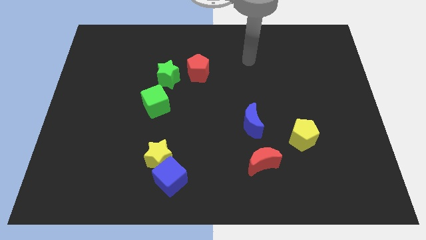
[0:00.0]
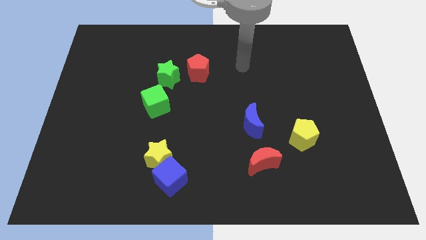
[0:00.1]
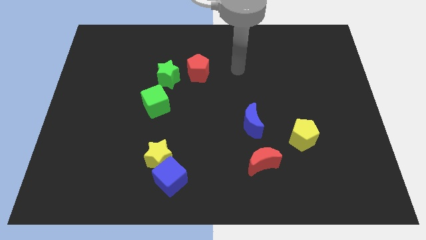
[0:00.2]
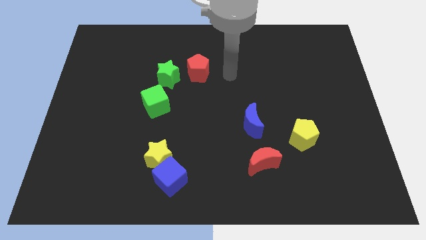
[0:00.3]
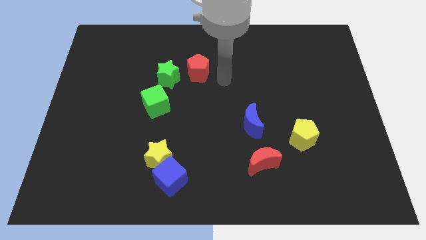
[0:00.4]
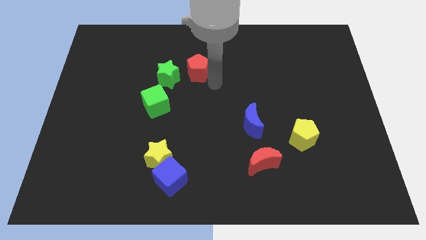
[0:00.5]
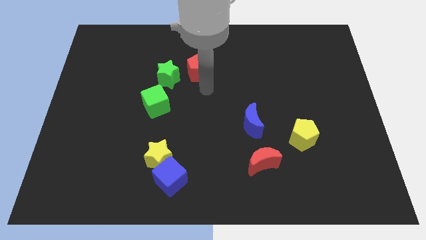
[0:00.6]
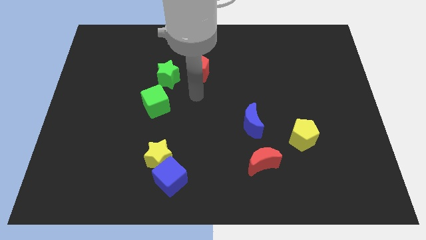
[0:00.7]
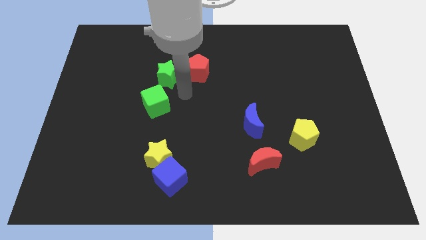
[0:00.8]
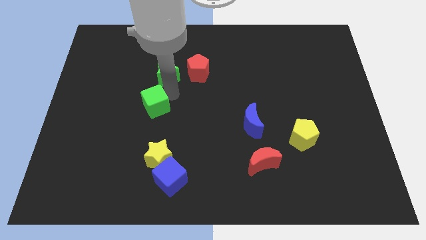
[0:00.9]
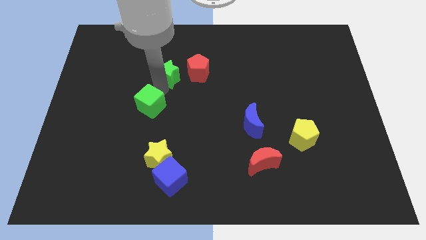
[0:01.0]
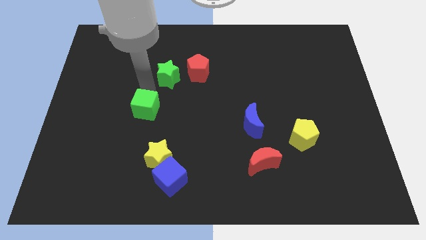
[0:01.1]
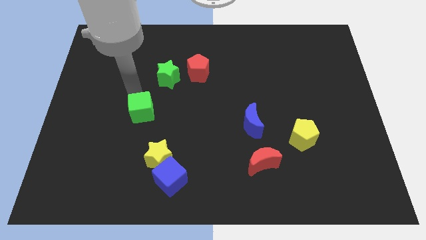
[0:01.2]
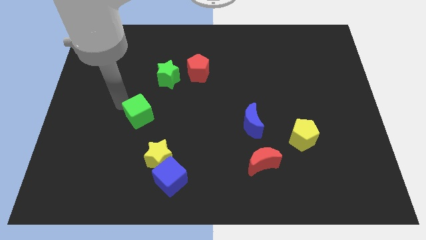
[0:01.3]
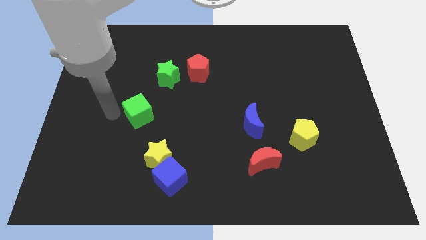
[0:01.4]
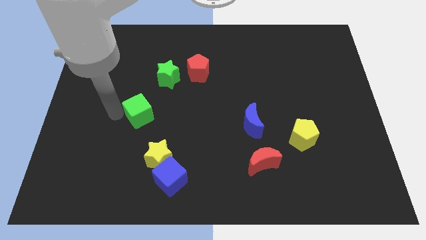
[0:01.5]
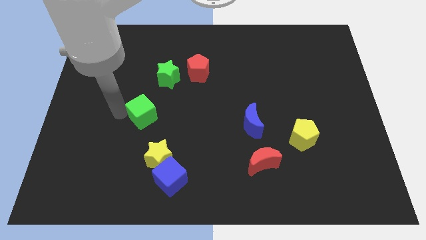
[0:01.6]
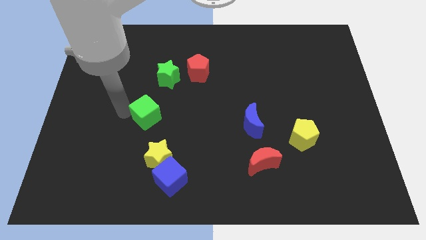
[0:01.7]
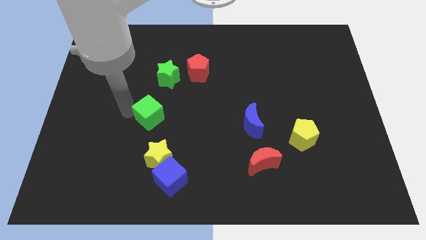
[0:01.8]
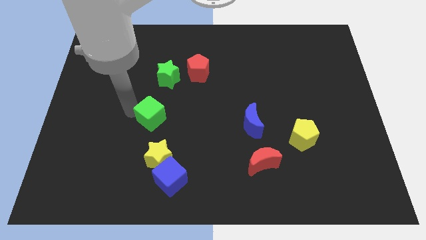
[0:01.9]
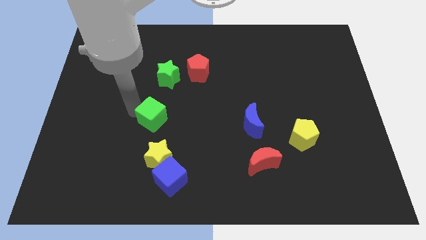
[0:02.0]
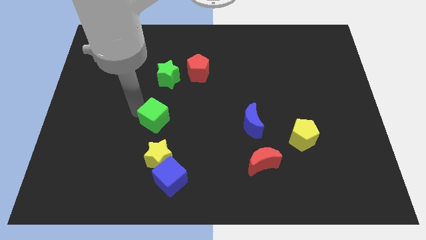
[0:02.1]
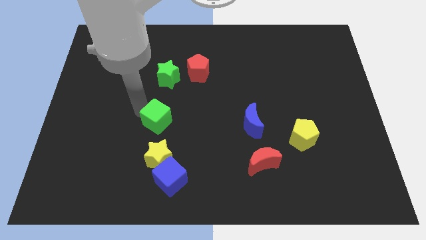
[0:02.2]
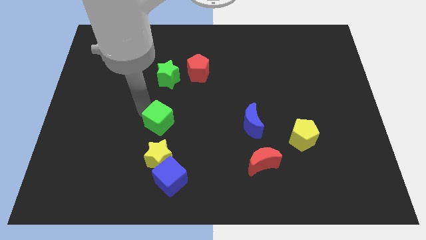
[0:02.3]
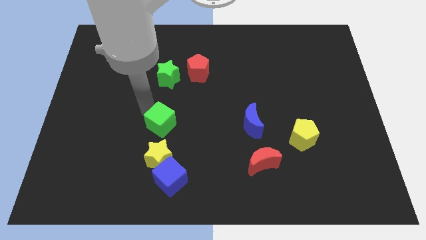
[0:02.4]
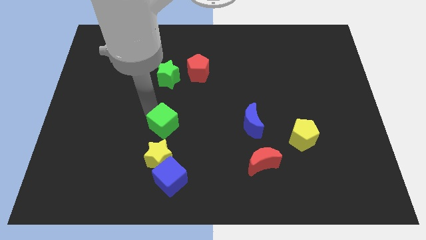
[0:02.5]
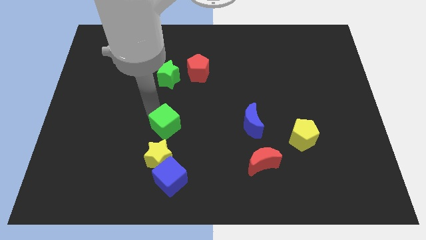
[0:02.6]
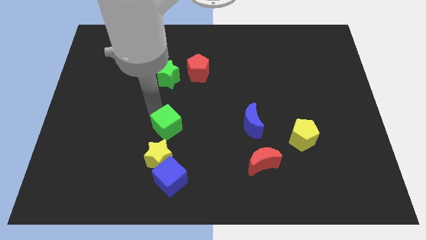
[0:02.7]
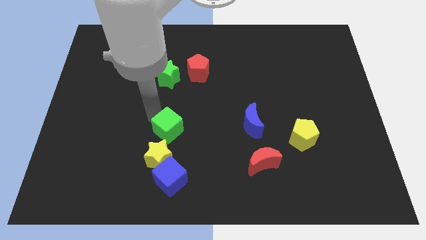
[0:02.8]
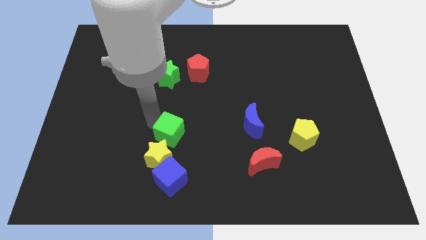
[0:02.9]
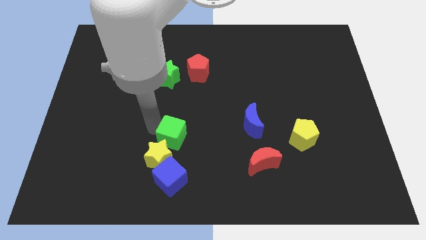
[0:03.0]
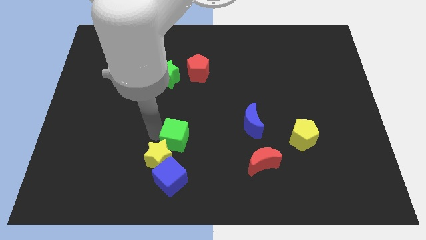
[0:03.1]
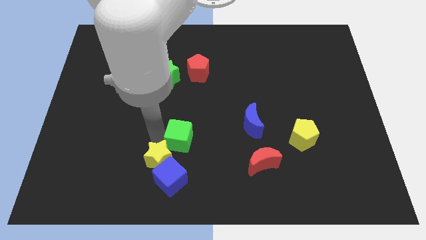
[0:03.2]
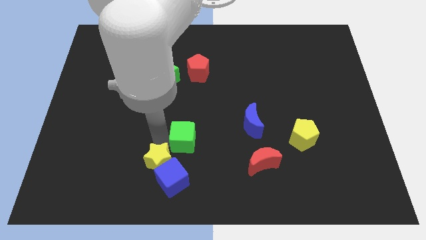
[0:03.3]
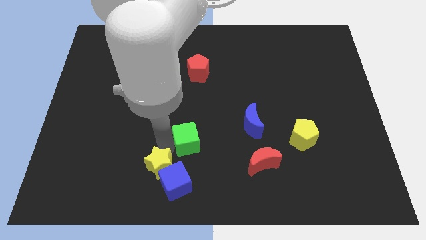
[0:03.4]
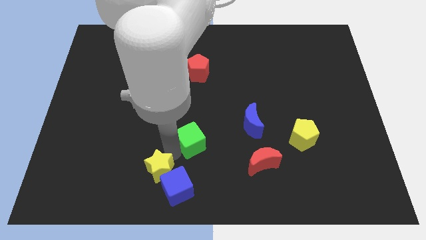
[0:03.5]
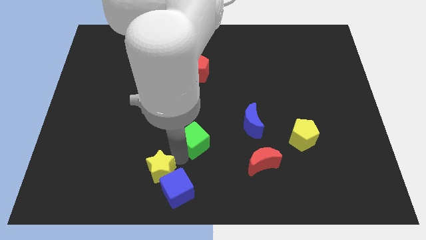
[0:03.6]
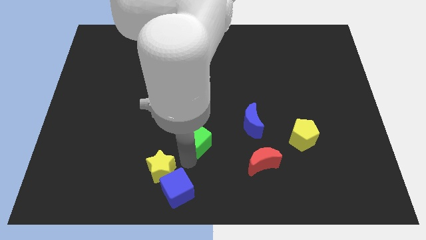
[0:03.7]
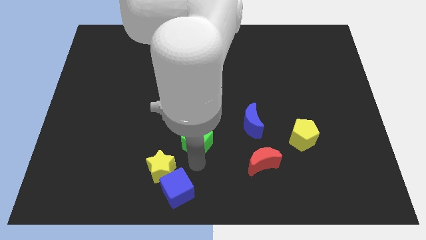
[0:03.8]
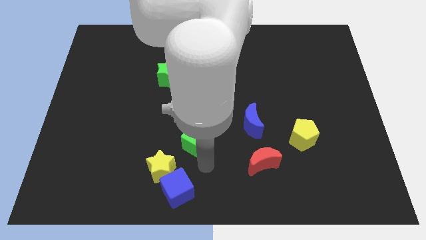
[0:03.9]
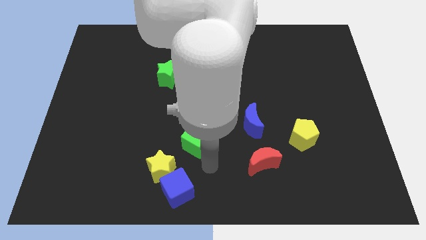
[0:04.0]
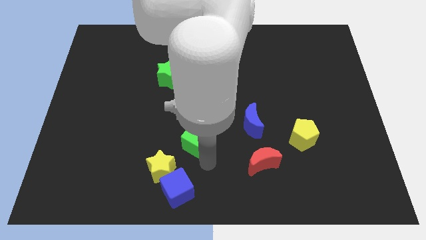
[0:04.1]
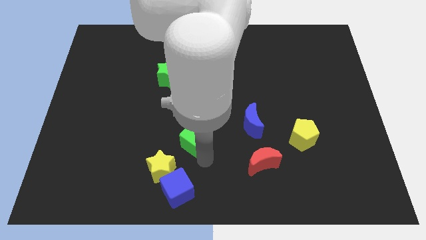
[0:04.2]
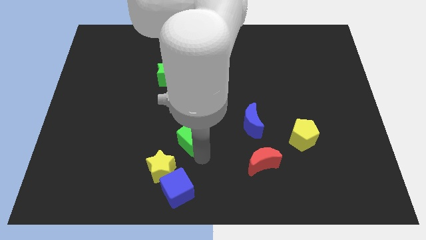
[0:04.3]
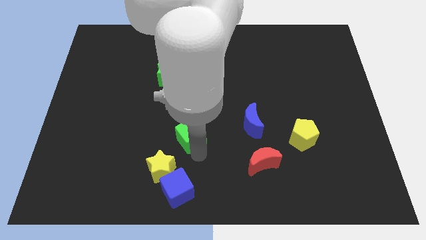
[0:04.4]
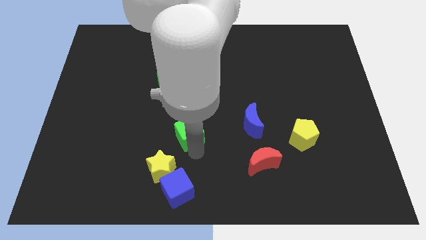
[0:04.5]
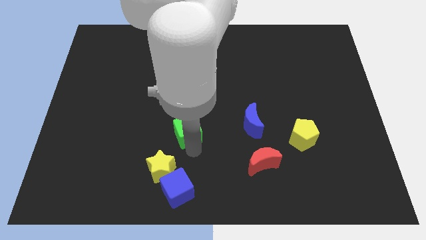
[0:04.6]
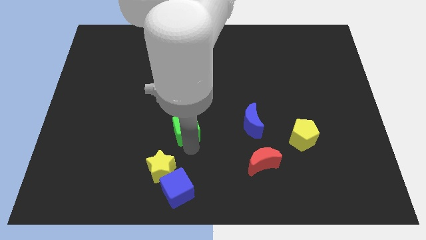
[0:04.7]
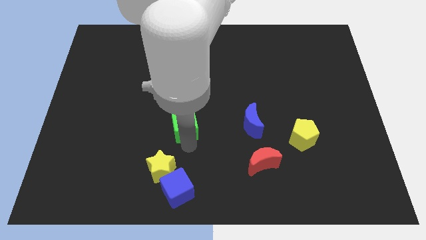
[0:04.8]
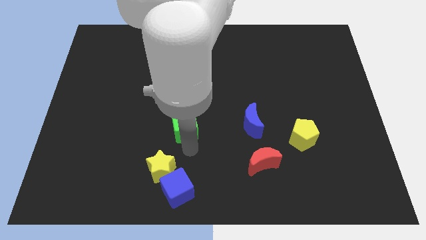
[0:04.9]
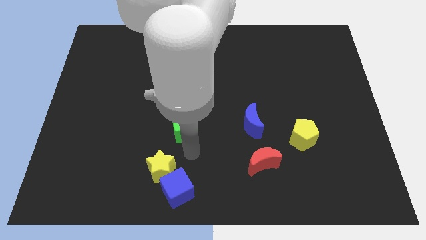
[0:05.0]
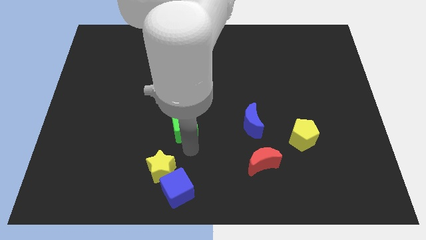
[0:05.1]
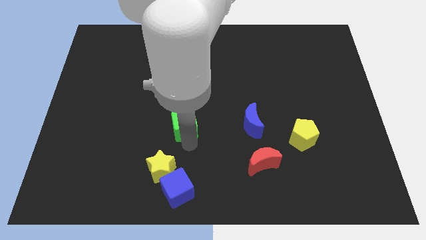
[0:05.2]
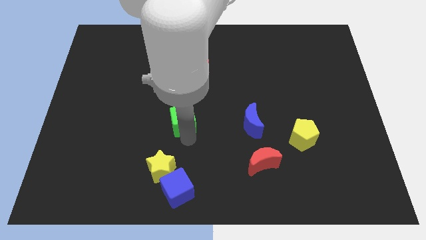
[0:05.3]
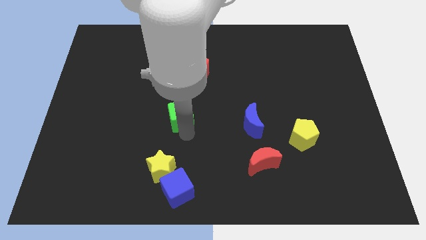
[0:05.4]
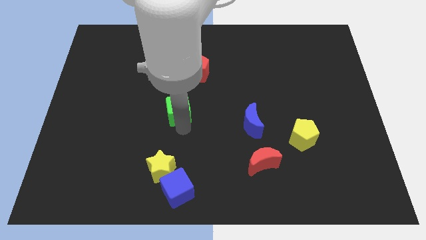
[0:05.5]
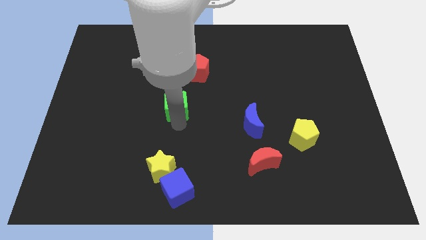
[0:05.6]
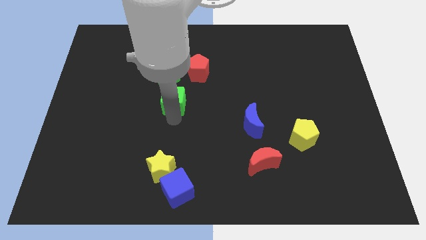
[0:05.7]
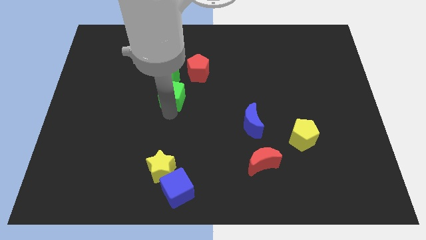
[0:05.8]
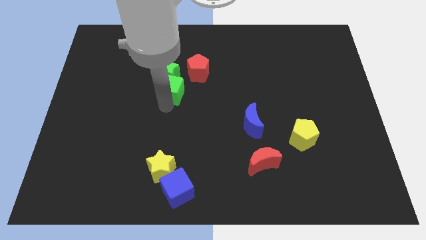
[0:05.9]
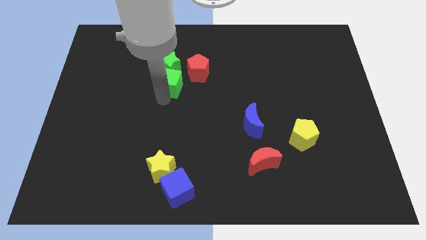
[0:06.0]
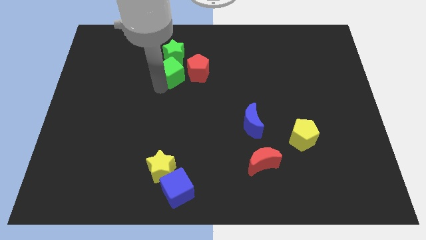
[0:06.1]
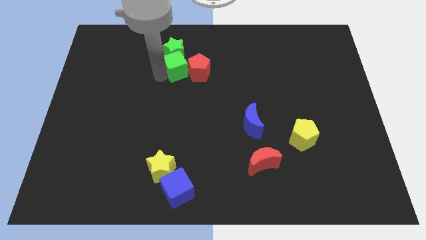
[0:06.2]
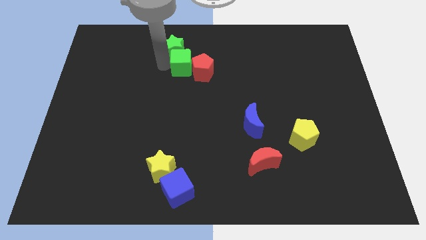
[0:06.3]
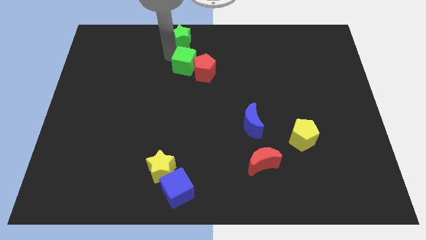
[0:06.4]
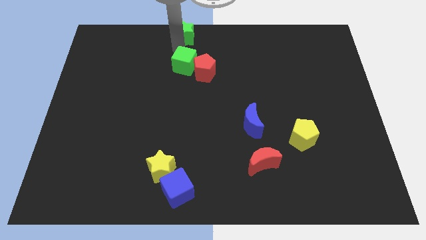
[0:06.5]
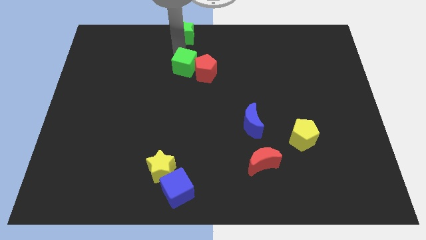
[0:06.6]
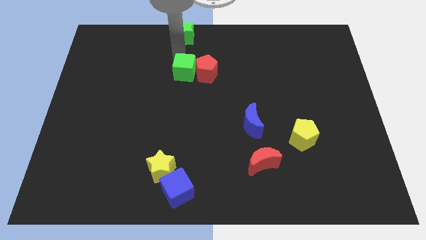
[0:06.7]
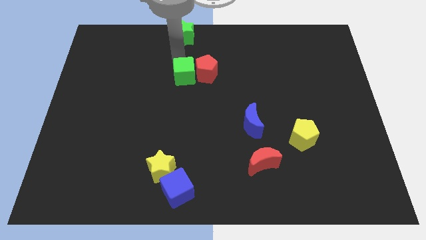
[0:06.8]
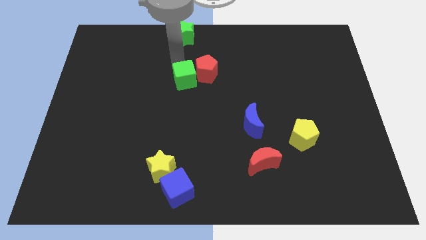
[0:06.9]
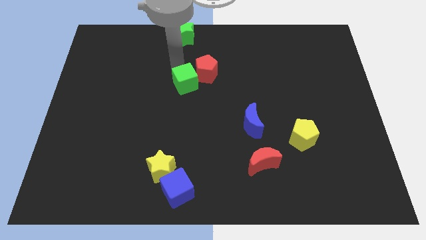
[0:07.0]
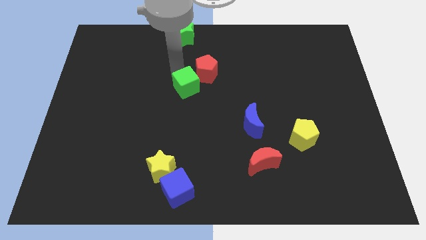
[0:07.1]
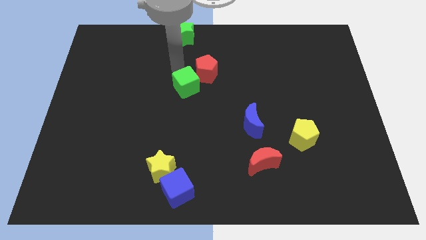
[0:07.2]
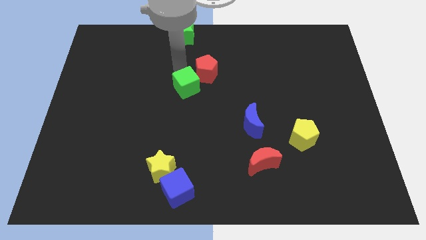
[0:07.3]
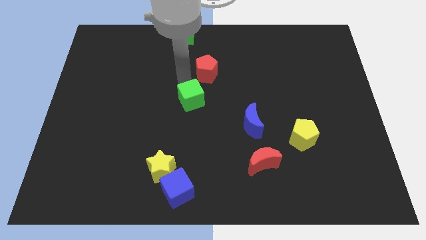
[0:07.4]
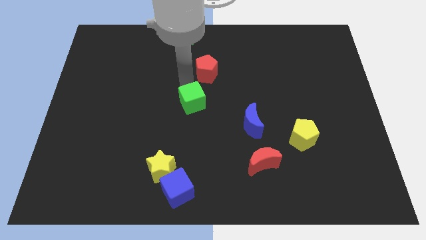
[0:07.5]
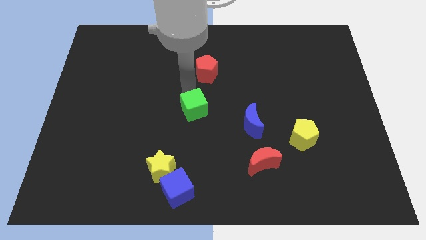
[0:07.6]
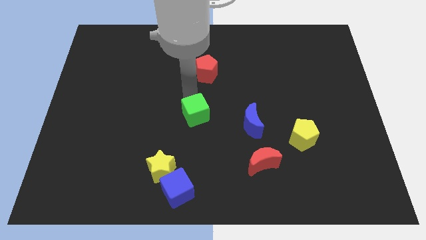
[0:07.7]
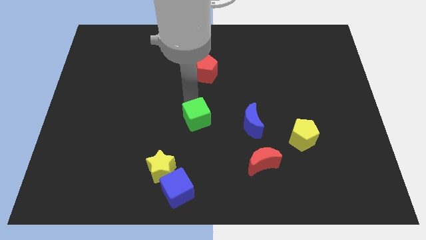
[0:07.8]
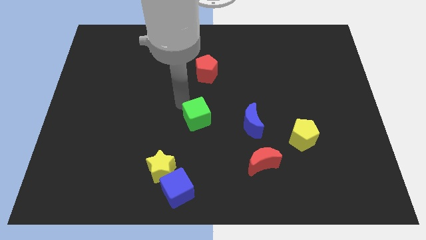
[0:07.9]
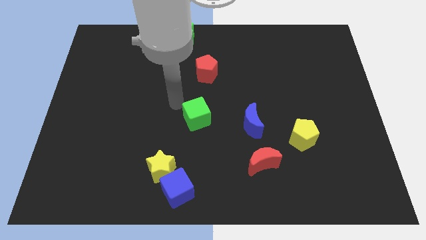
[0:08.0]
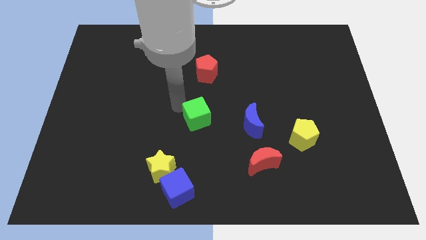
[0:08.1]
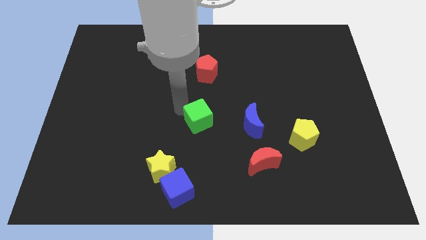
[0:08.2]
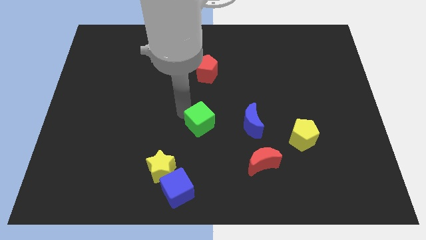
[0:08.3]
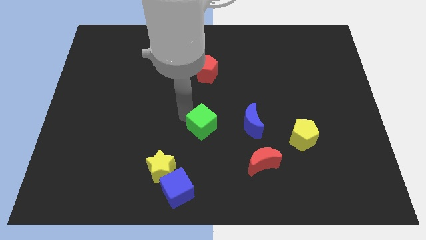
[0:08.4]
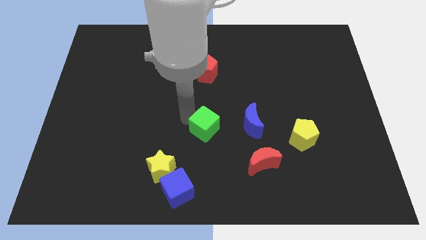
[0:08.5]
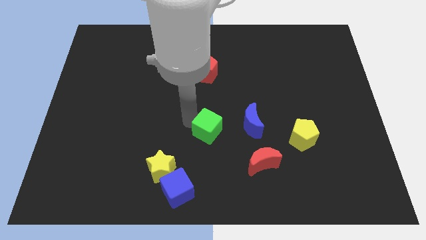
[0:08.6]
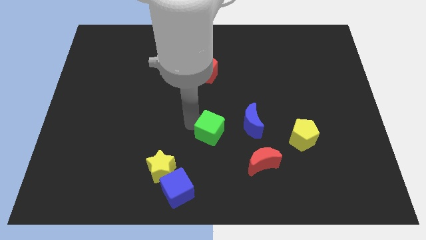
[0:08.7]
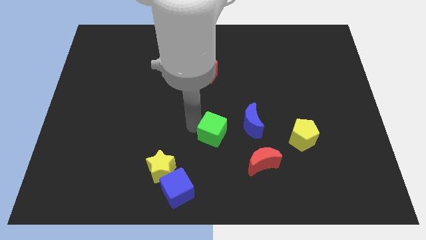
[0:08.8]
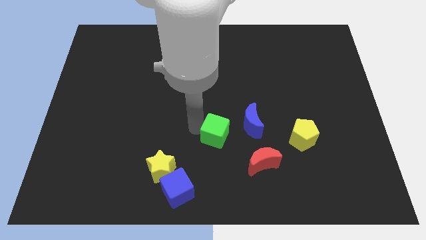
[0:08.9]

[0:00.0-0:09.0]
put the green cube to the top left of the red moon
